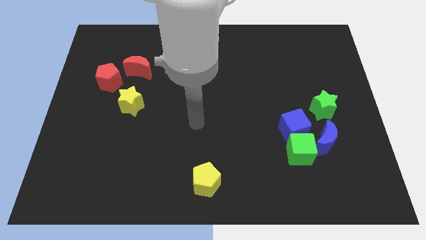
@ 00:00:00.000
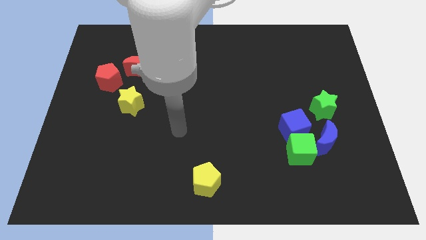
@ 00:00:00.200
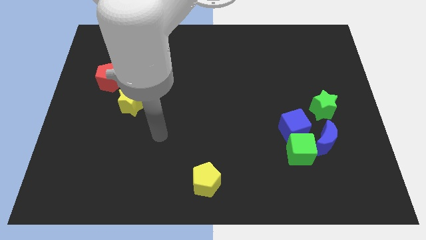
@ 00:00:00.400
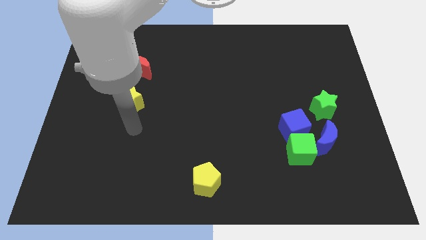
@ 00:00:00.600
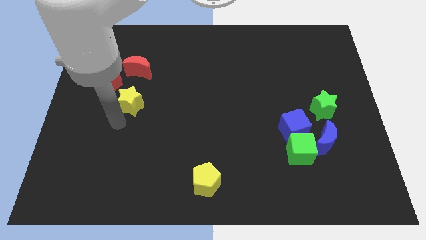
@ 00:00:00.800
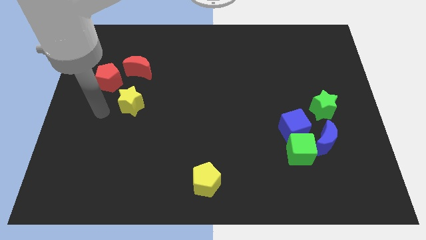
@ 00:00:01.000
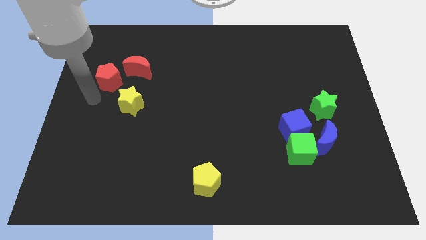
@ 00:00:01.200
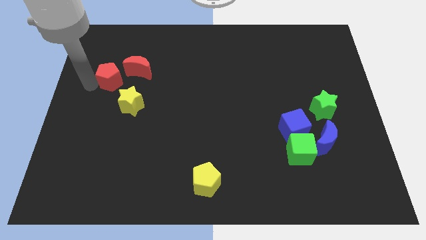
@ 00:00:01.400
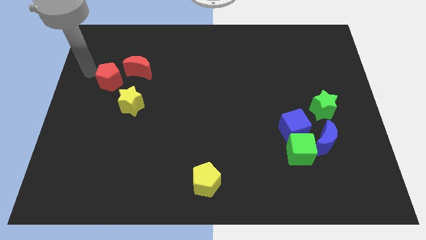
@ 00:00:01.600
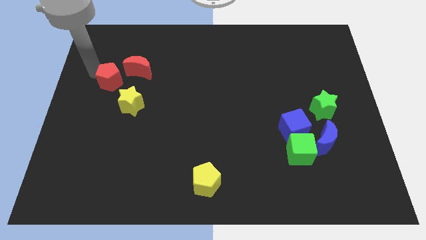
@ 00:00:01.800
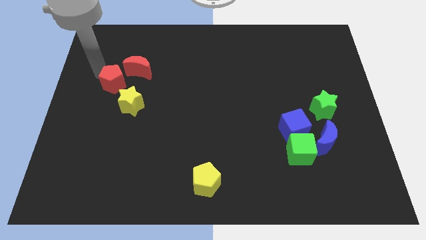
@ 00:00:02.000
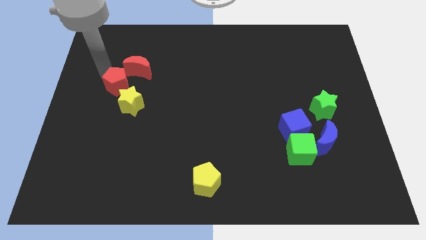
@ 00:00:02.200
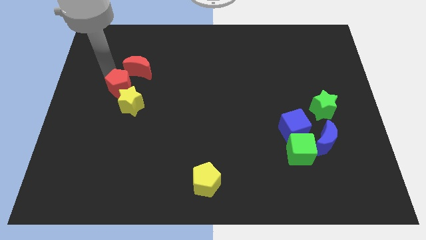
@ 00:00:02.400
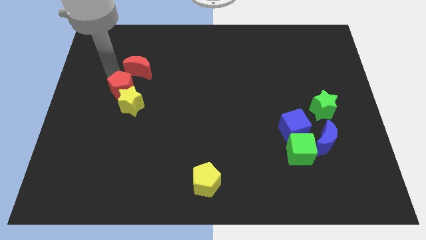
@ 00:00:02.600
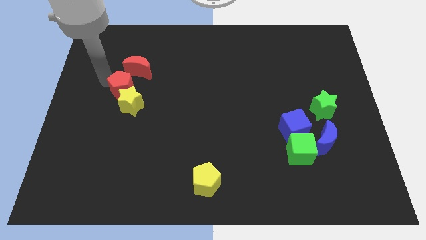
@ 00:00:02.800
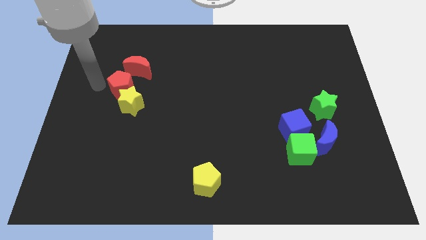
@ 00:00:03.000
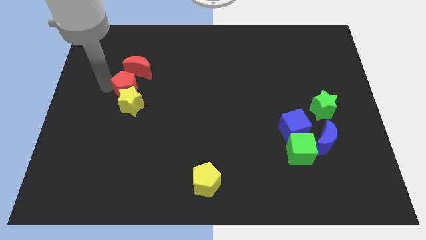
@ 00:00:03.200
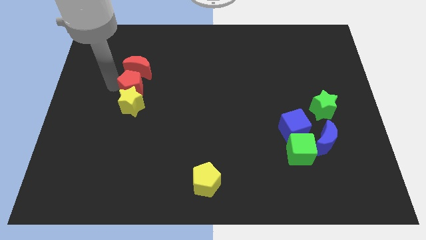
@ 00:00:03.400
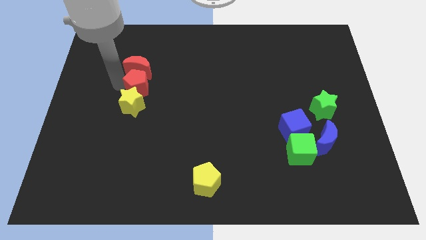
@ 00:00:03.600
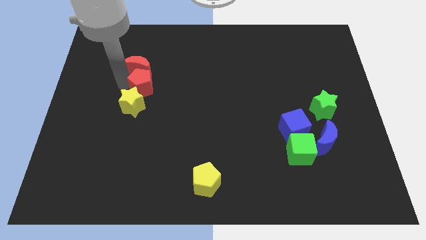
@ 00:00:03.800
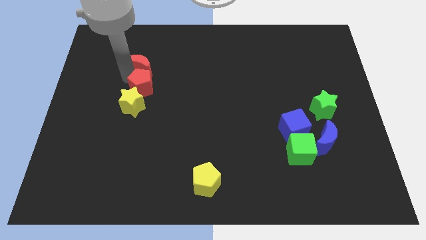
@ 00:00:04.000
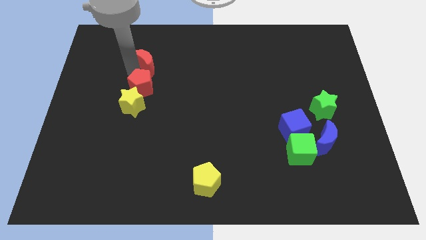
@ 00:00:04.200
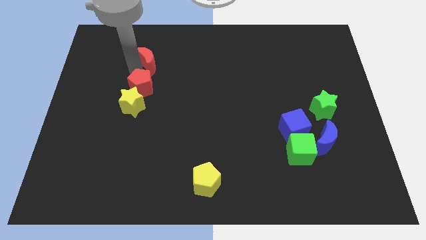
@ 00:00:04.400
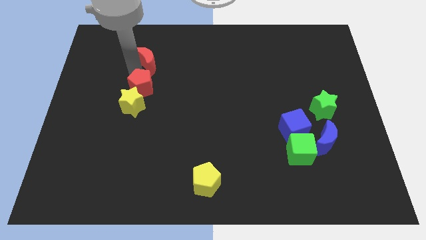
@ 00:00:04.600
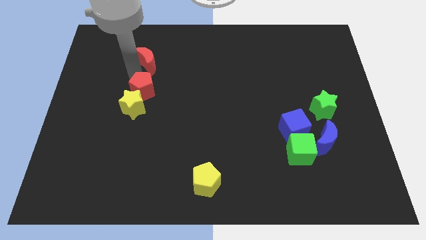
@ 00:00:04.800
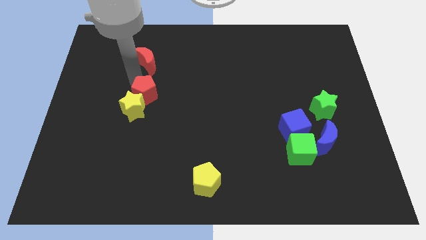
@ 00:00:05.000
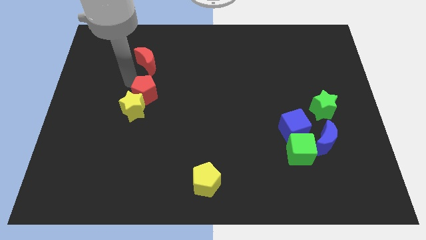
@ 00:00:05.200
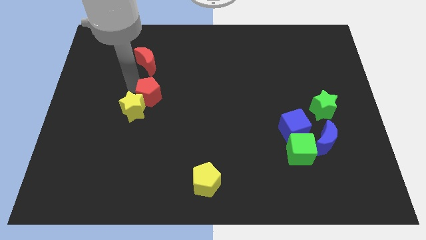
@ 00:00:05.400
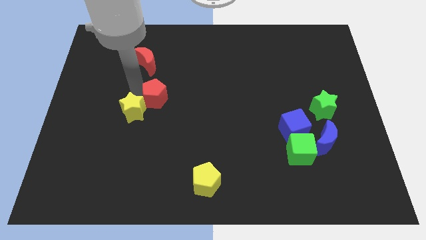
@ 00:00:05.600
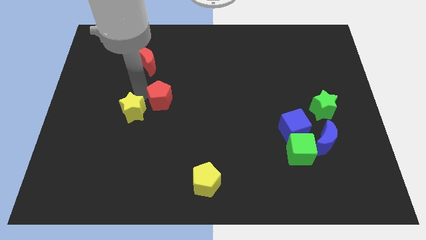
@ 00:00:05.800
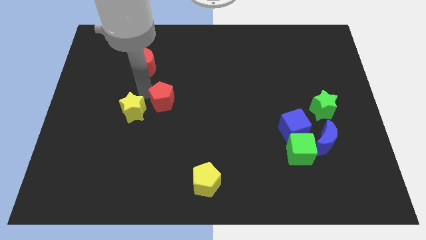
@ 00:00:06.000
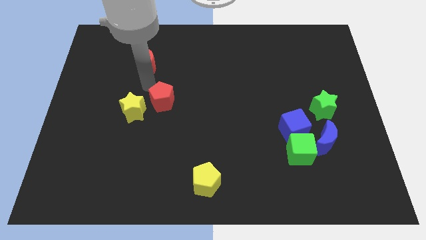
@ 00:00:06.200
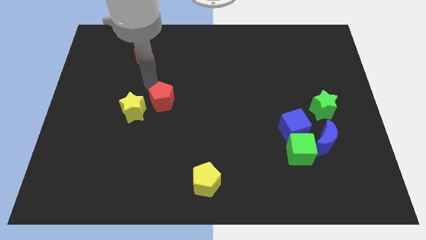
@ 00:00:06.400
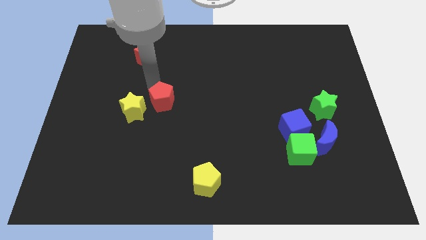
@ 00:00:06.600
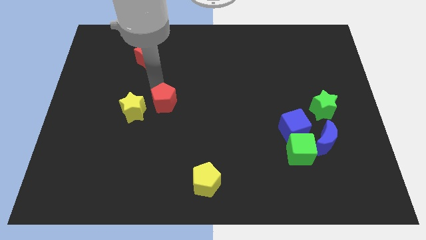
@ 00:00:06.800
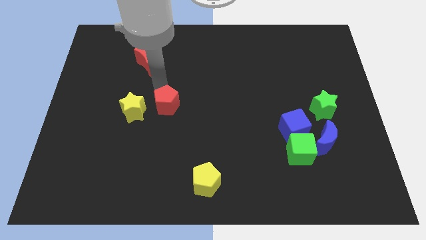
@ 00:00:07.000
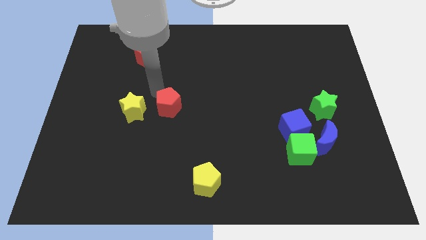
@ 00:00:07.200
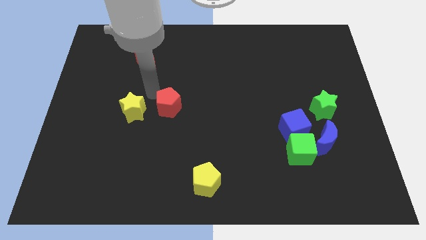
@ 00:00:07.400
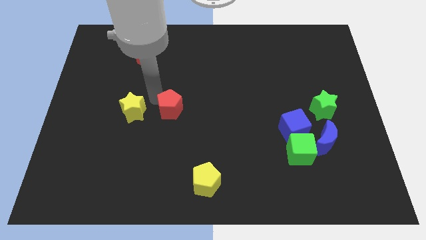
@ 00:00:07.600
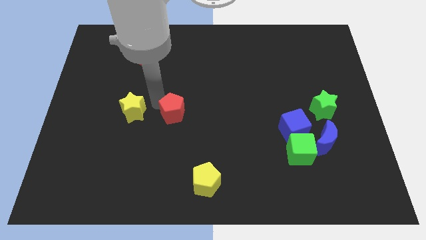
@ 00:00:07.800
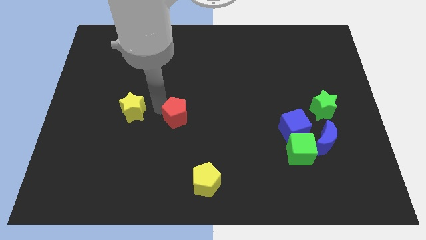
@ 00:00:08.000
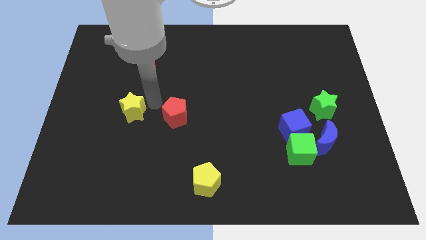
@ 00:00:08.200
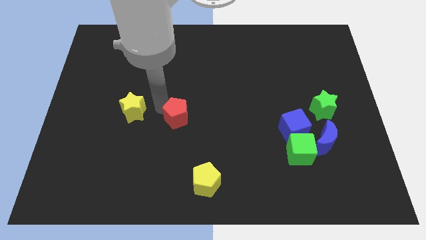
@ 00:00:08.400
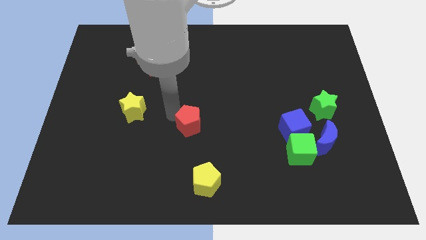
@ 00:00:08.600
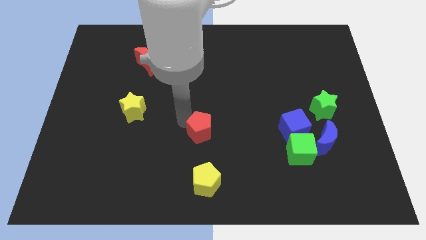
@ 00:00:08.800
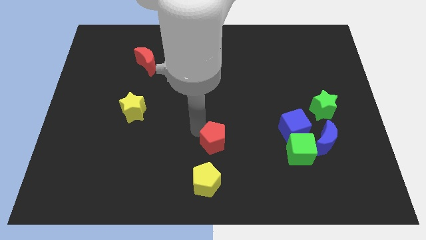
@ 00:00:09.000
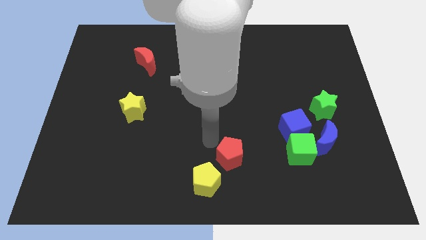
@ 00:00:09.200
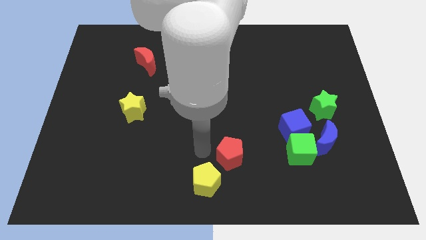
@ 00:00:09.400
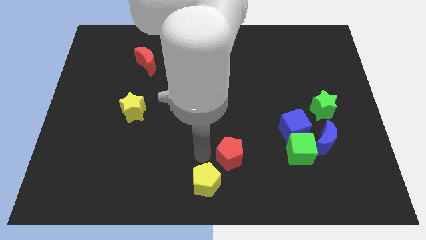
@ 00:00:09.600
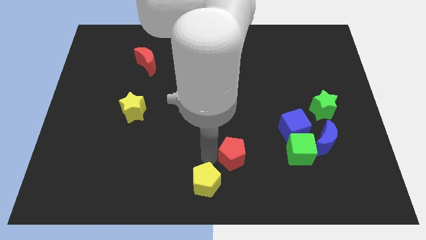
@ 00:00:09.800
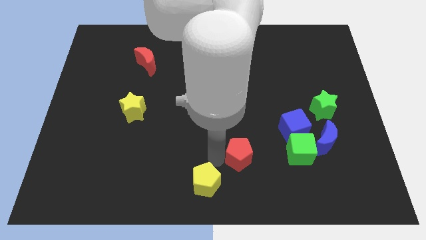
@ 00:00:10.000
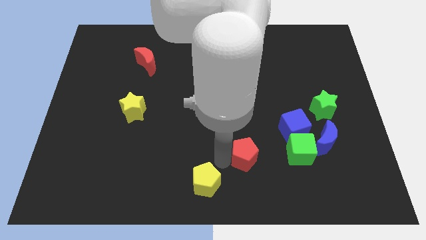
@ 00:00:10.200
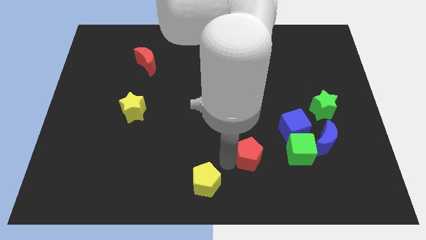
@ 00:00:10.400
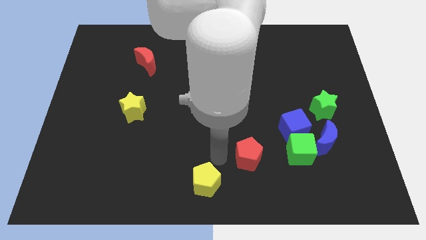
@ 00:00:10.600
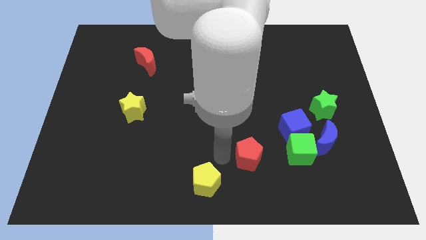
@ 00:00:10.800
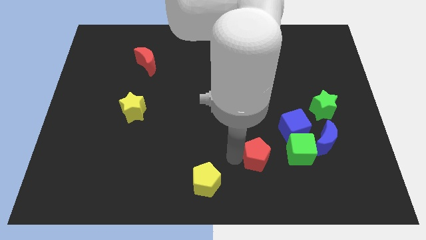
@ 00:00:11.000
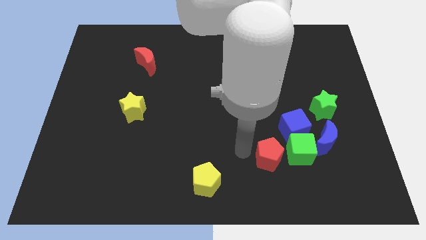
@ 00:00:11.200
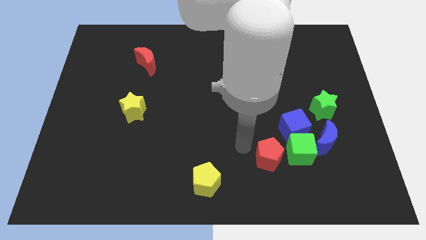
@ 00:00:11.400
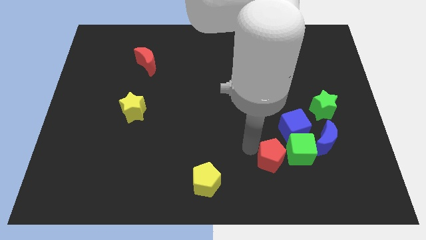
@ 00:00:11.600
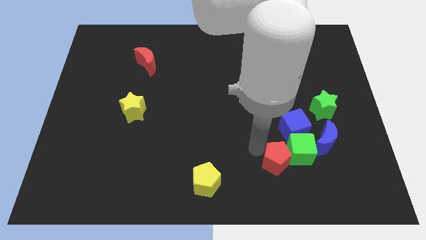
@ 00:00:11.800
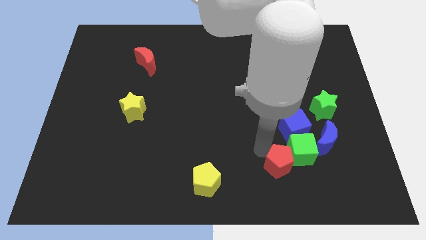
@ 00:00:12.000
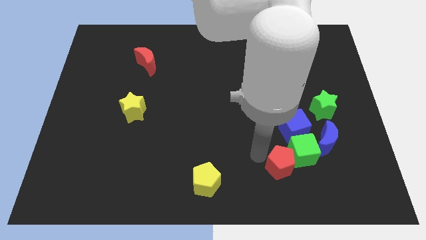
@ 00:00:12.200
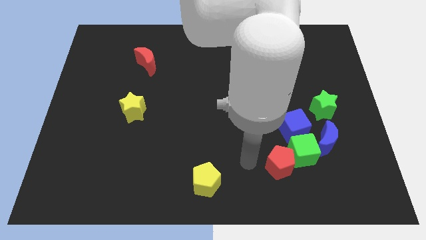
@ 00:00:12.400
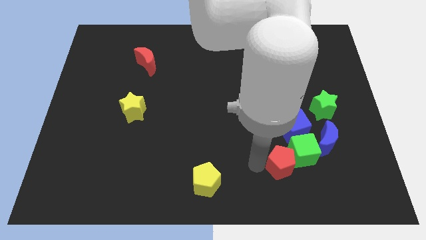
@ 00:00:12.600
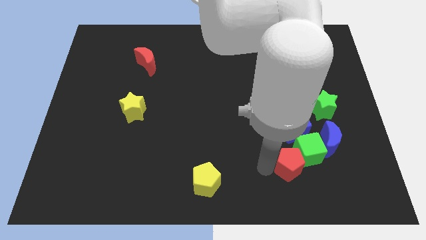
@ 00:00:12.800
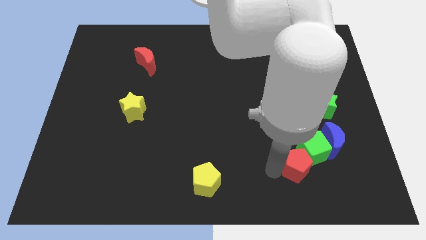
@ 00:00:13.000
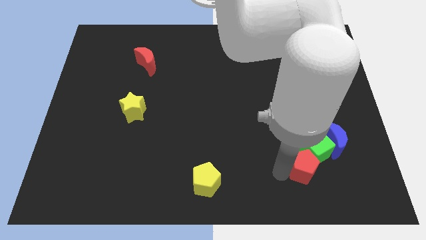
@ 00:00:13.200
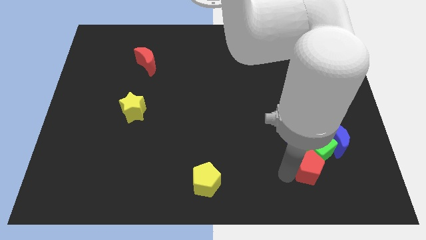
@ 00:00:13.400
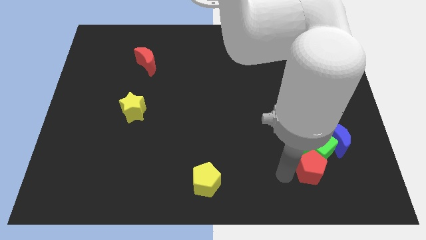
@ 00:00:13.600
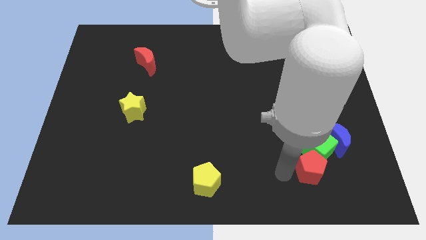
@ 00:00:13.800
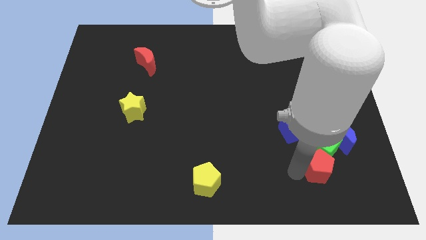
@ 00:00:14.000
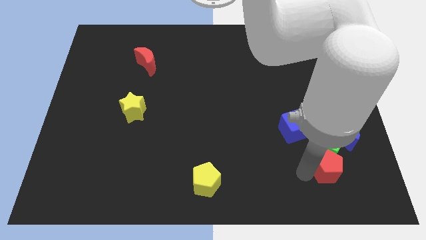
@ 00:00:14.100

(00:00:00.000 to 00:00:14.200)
push the red pentagon below the green star
